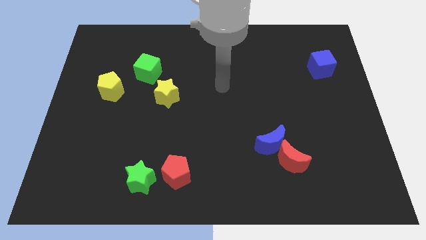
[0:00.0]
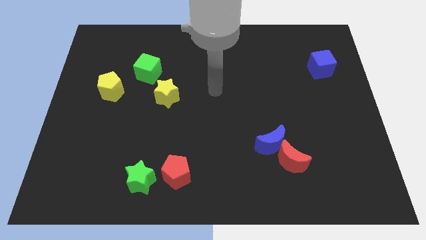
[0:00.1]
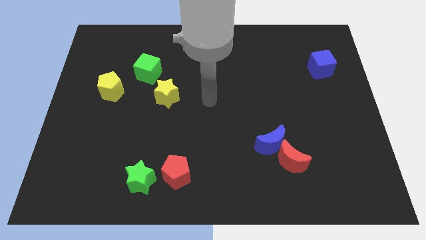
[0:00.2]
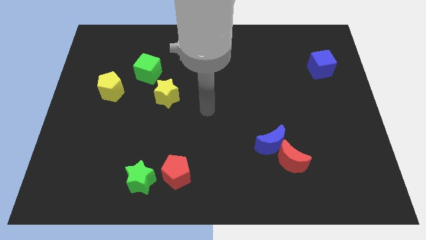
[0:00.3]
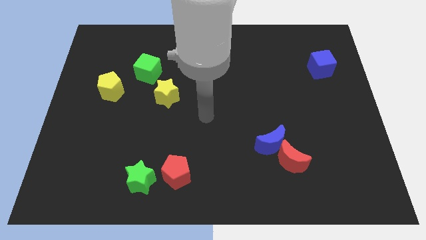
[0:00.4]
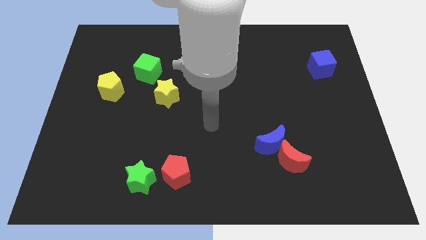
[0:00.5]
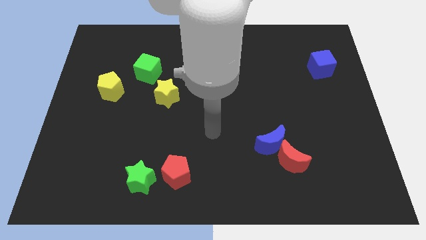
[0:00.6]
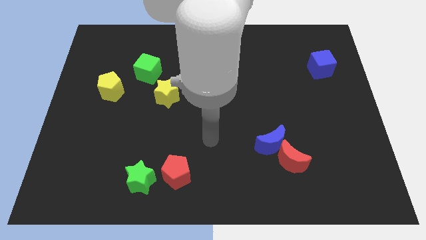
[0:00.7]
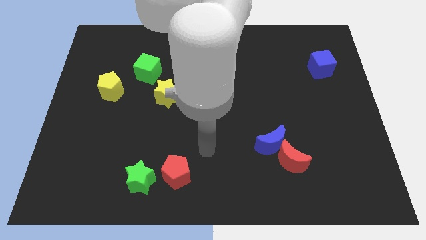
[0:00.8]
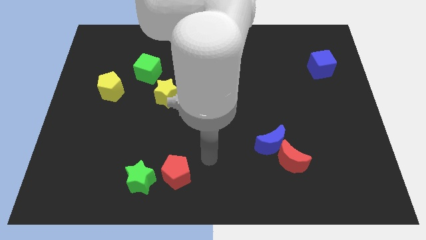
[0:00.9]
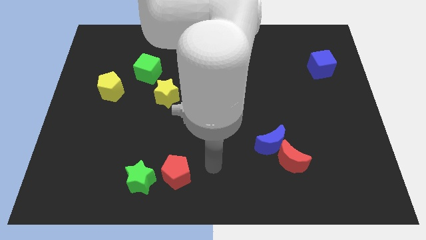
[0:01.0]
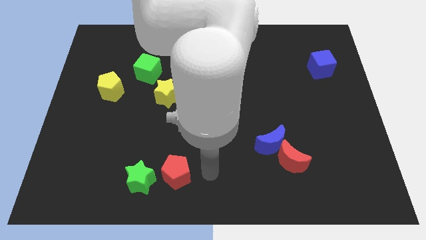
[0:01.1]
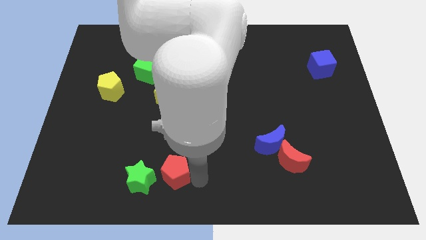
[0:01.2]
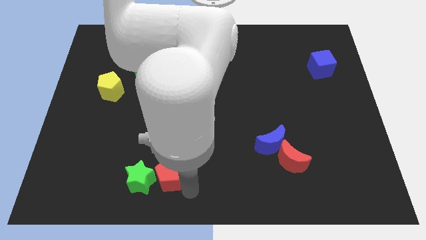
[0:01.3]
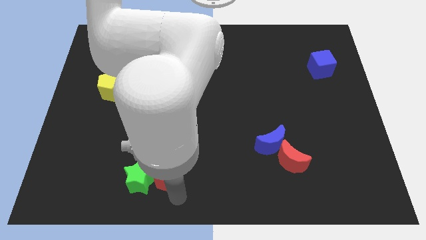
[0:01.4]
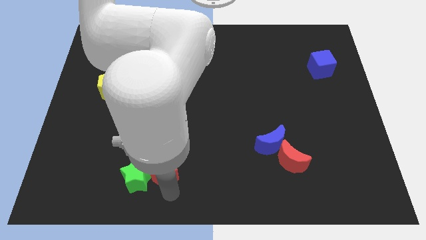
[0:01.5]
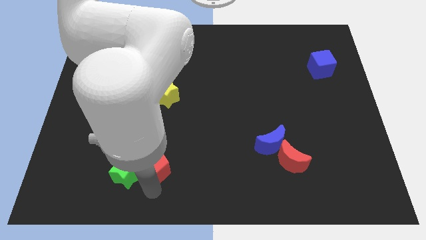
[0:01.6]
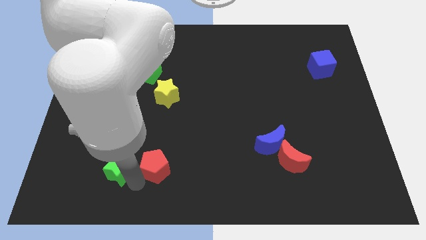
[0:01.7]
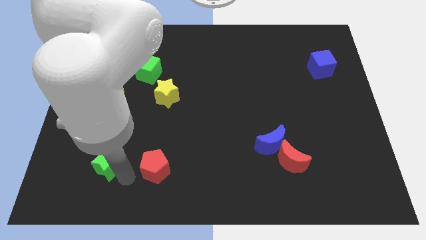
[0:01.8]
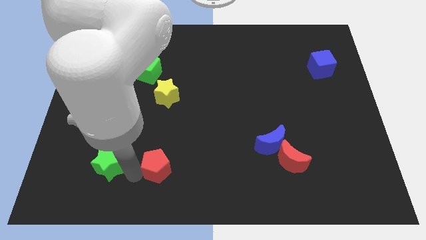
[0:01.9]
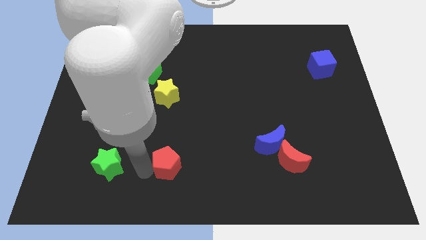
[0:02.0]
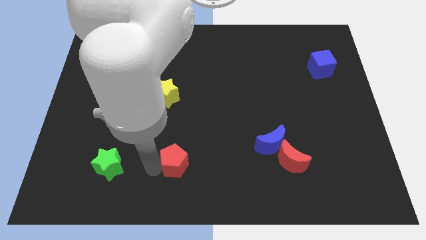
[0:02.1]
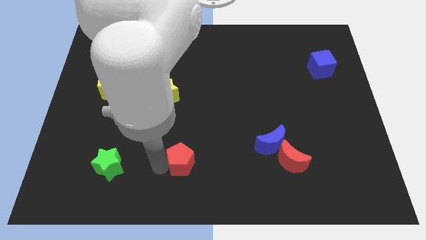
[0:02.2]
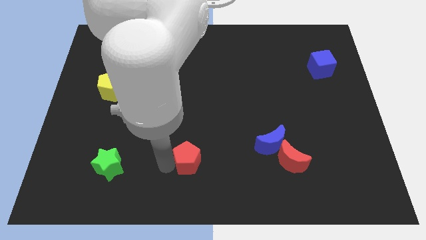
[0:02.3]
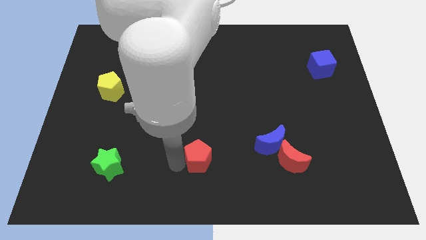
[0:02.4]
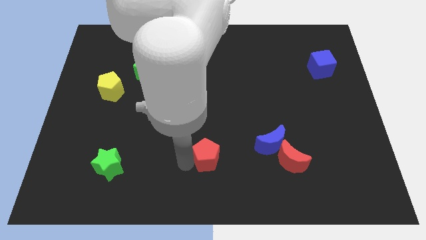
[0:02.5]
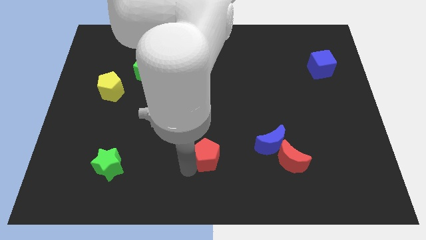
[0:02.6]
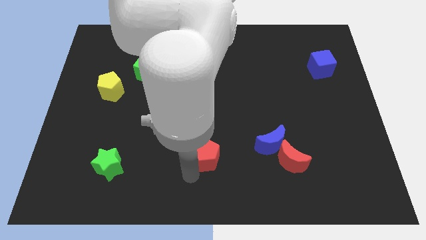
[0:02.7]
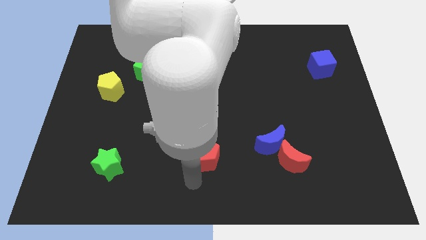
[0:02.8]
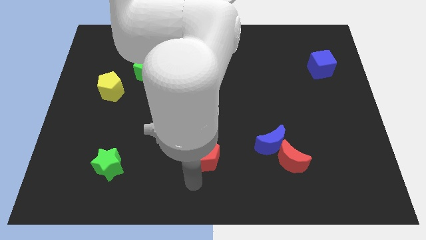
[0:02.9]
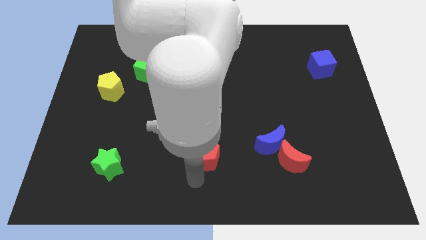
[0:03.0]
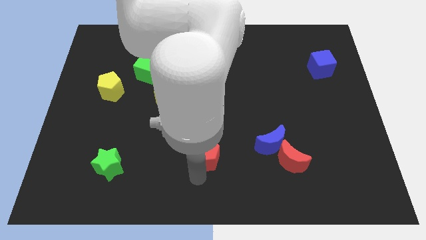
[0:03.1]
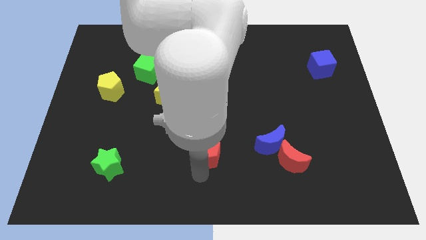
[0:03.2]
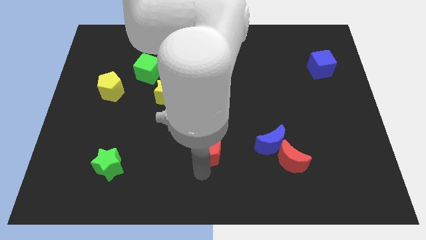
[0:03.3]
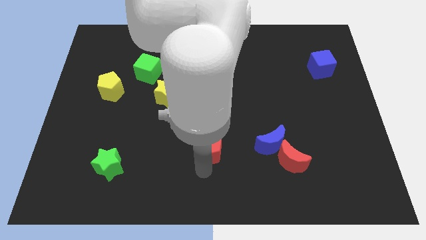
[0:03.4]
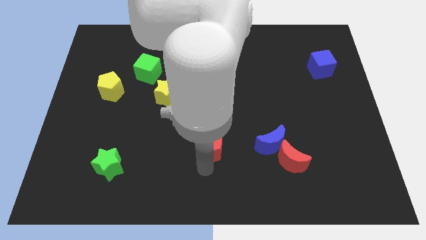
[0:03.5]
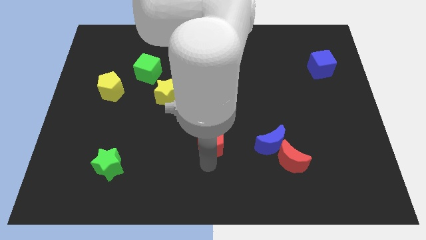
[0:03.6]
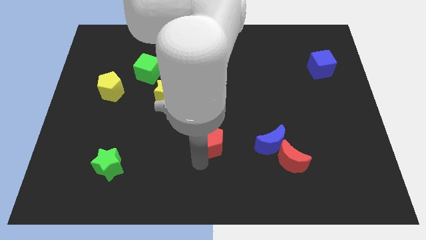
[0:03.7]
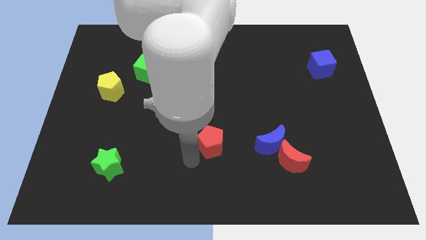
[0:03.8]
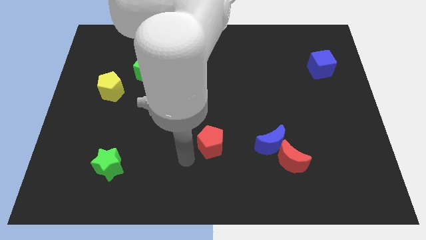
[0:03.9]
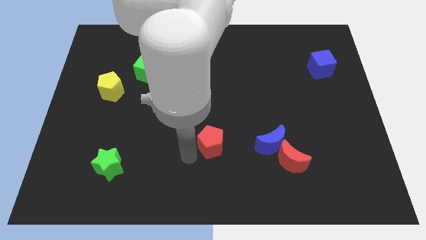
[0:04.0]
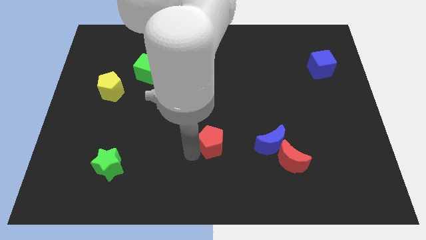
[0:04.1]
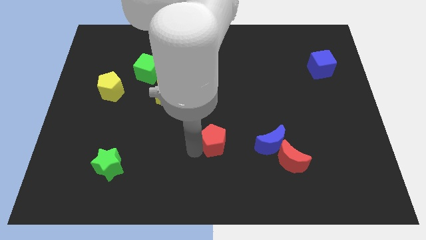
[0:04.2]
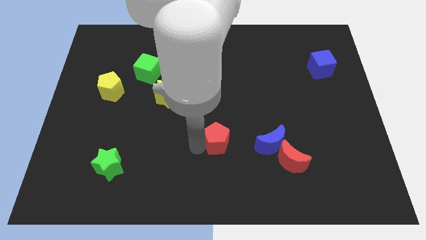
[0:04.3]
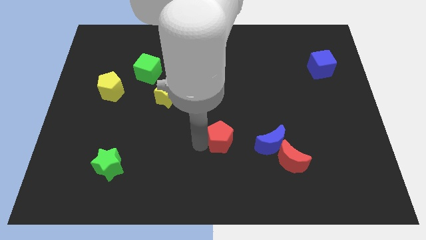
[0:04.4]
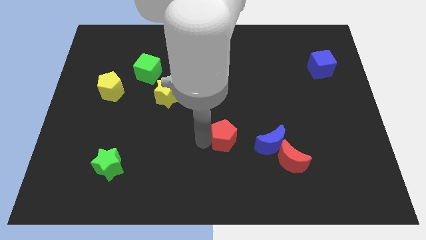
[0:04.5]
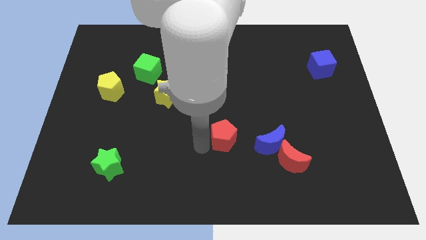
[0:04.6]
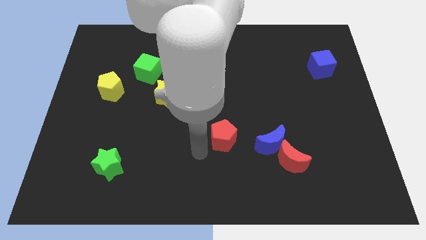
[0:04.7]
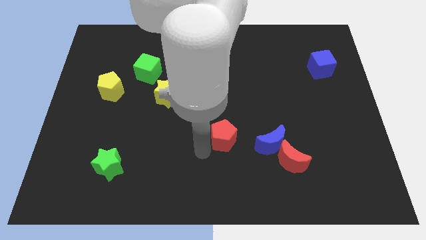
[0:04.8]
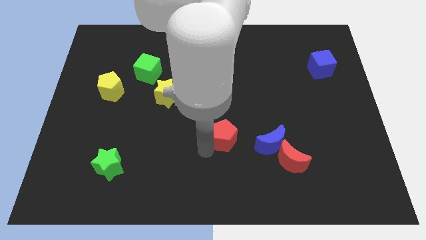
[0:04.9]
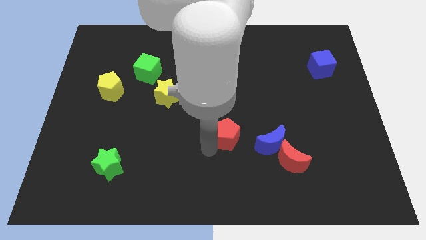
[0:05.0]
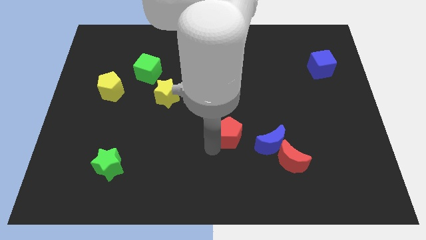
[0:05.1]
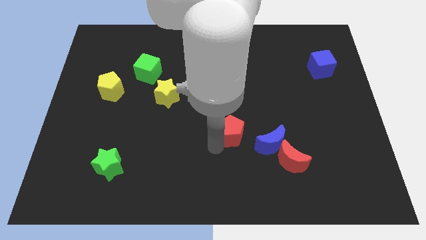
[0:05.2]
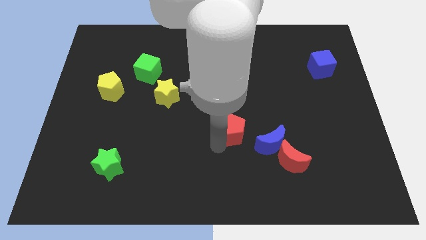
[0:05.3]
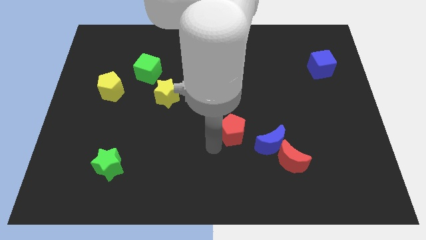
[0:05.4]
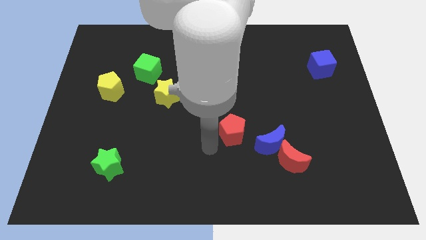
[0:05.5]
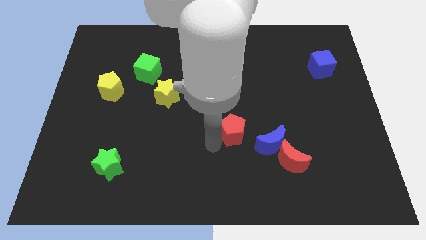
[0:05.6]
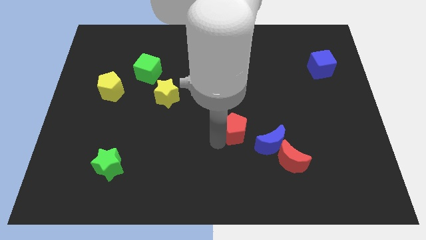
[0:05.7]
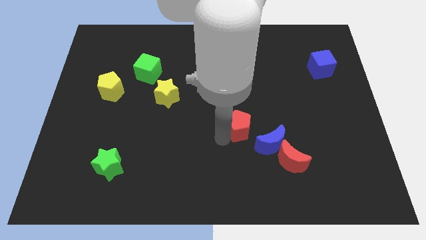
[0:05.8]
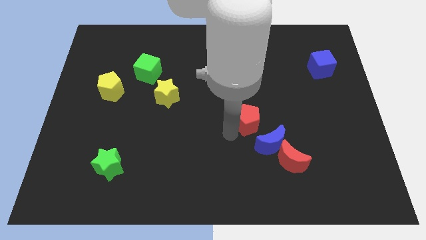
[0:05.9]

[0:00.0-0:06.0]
move the red pentagon diagonally upwards and right

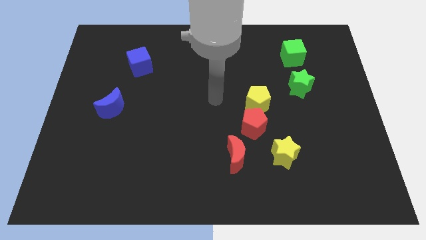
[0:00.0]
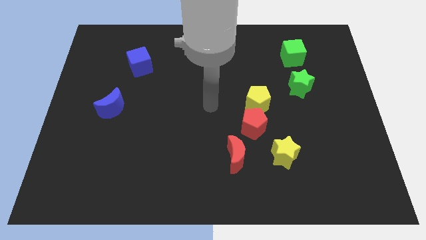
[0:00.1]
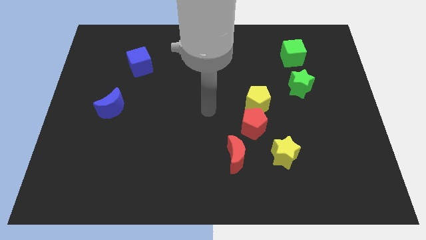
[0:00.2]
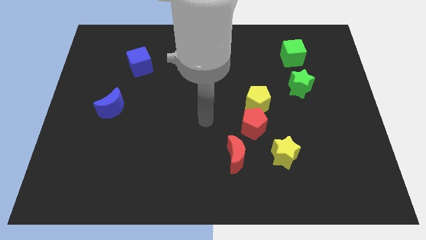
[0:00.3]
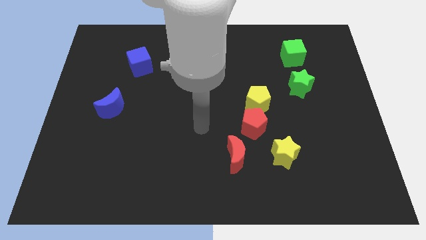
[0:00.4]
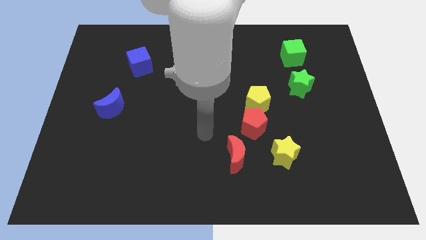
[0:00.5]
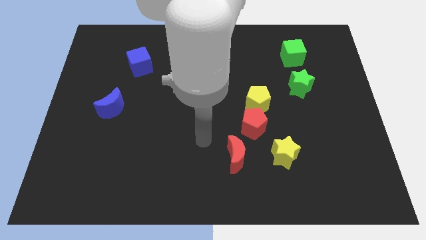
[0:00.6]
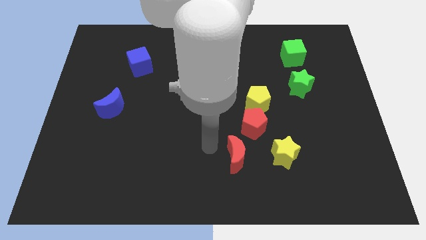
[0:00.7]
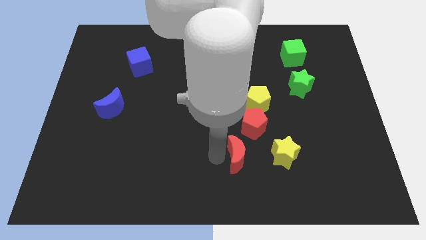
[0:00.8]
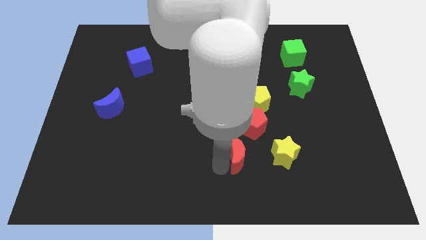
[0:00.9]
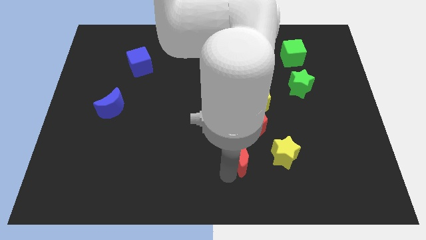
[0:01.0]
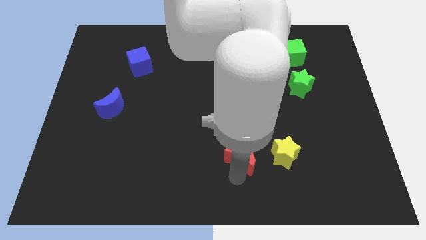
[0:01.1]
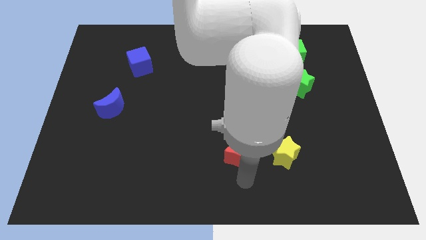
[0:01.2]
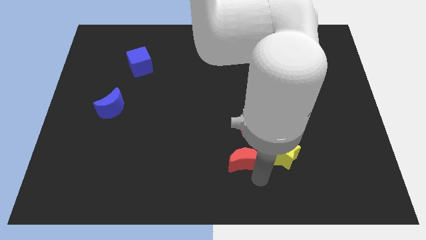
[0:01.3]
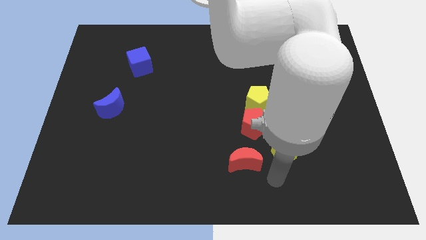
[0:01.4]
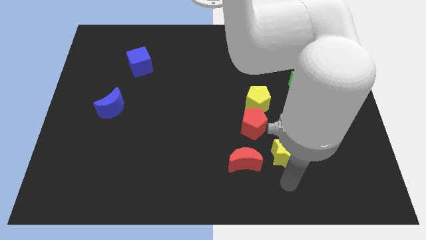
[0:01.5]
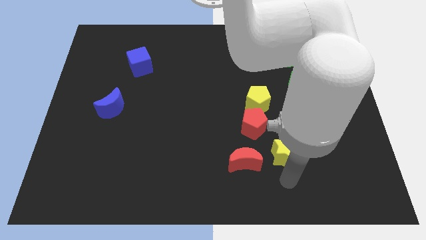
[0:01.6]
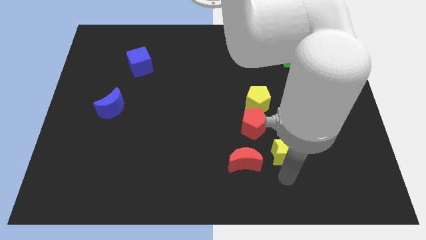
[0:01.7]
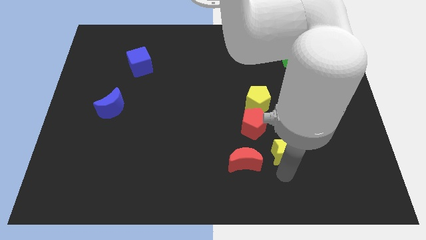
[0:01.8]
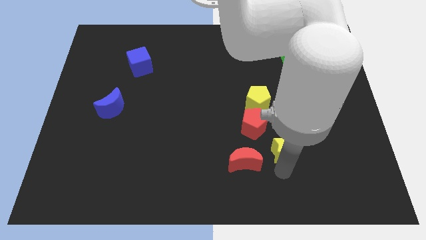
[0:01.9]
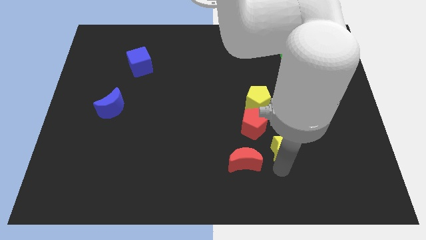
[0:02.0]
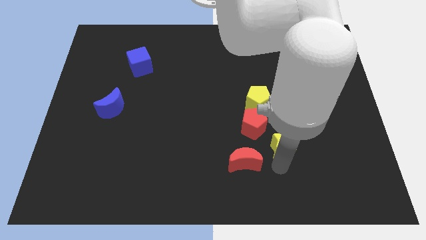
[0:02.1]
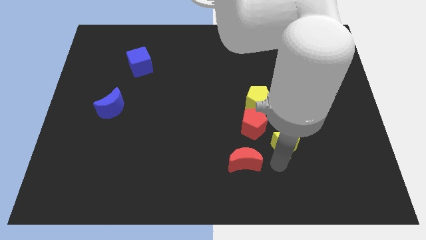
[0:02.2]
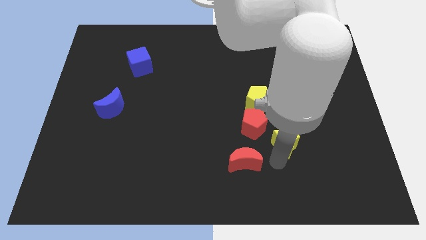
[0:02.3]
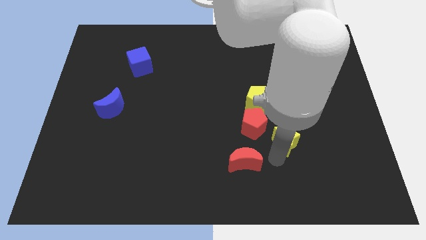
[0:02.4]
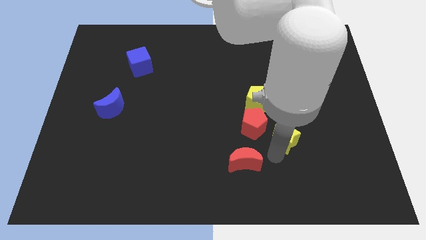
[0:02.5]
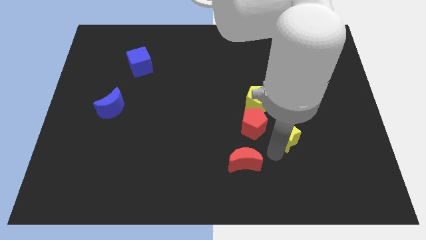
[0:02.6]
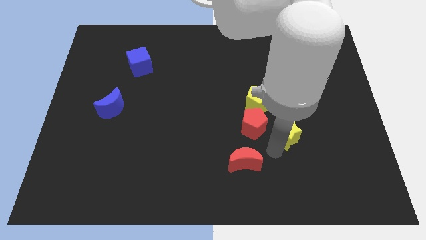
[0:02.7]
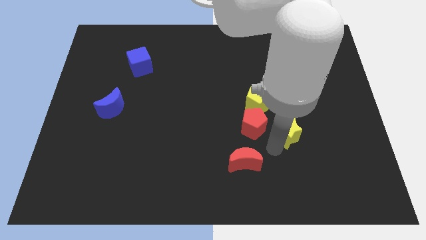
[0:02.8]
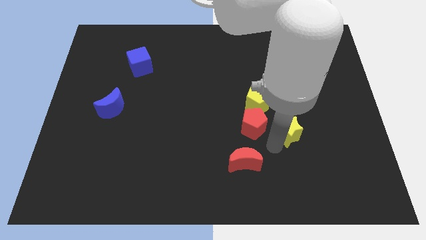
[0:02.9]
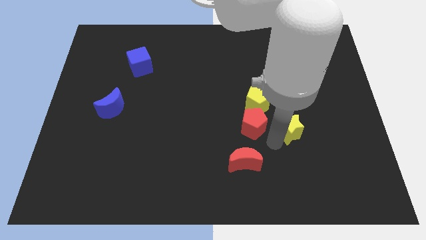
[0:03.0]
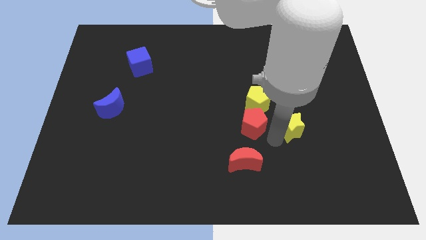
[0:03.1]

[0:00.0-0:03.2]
slightly slide the yellow star upwards
